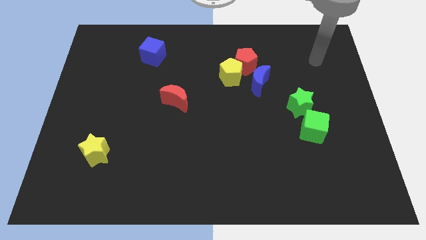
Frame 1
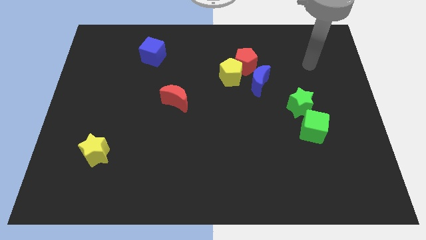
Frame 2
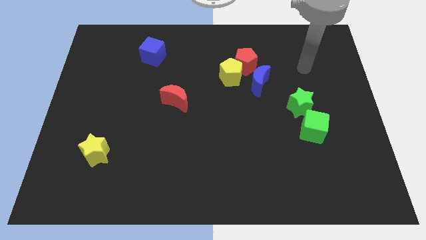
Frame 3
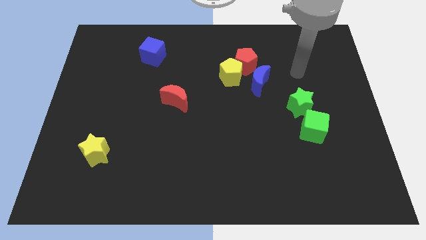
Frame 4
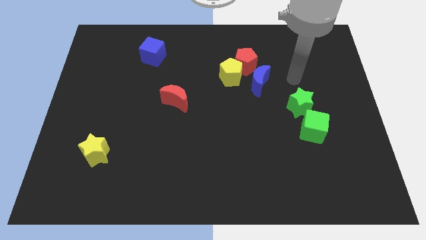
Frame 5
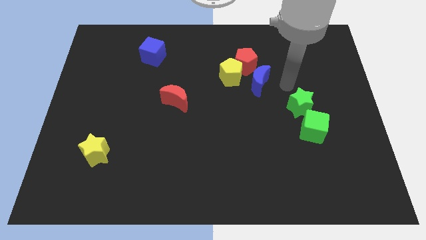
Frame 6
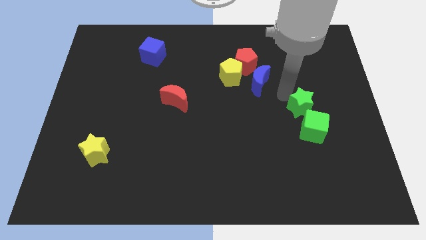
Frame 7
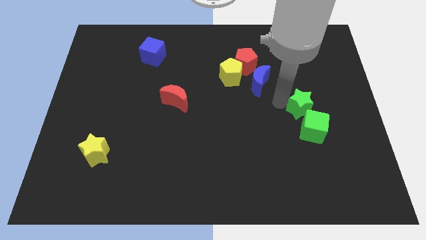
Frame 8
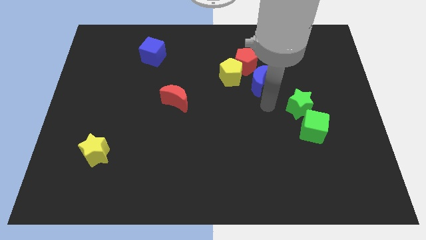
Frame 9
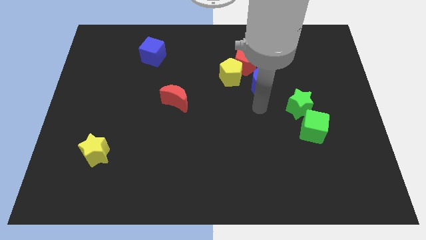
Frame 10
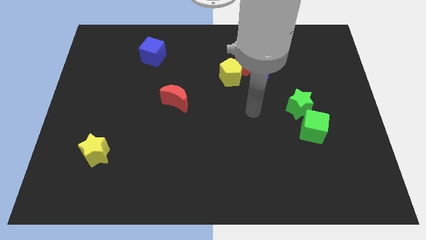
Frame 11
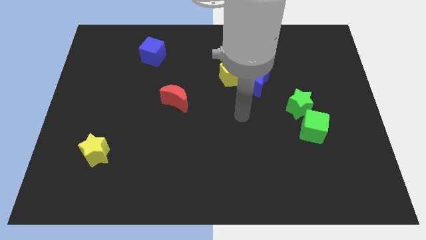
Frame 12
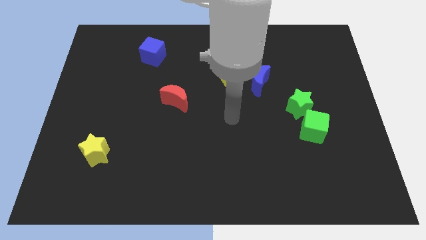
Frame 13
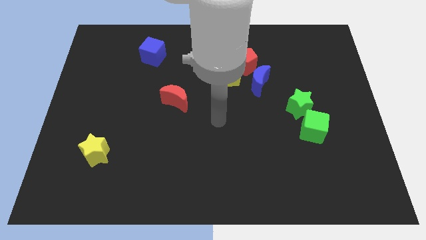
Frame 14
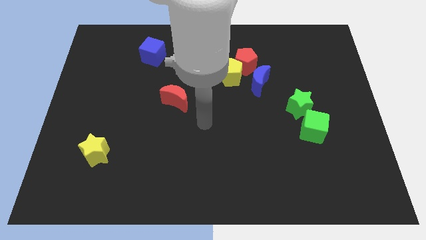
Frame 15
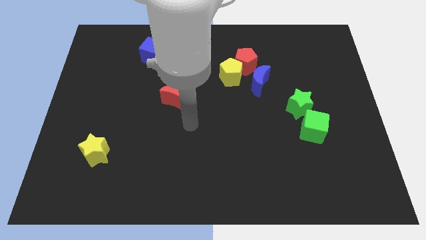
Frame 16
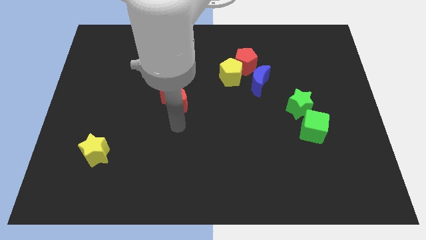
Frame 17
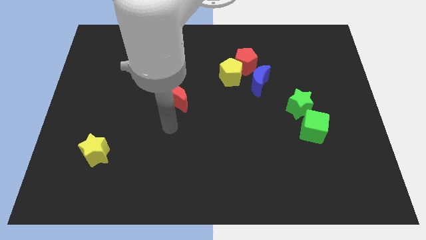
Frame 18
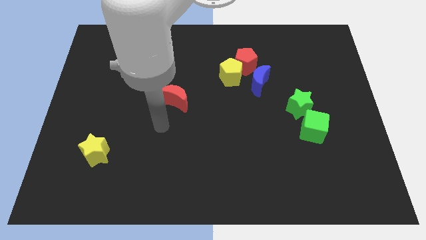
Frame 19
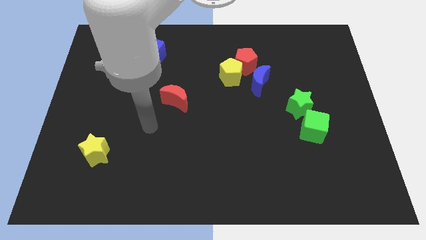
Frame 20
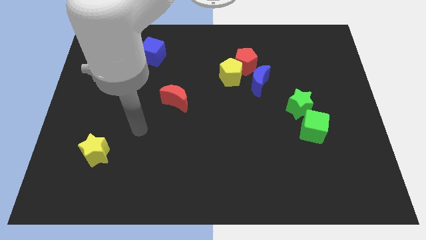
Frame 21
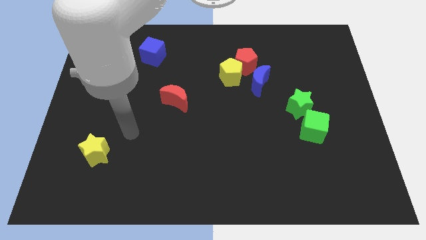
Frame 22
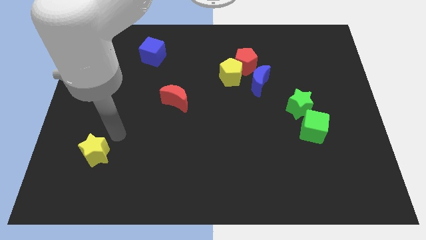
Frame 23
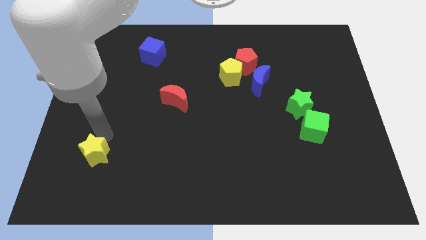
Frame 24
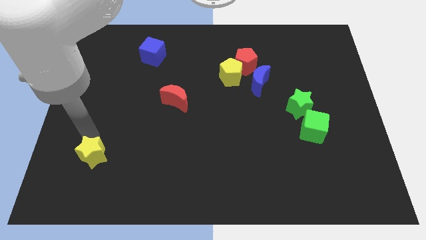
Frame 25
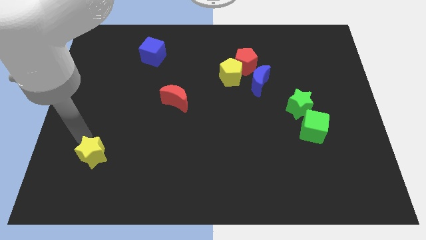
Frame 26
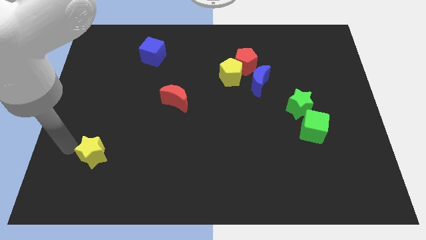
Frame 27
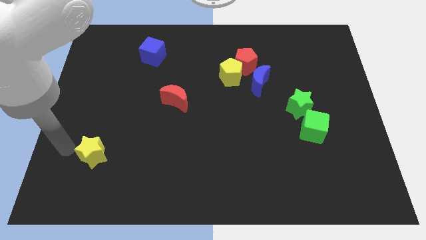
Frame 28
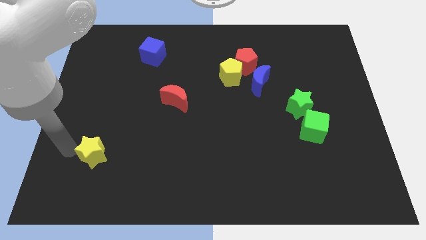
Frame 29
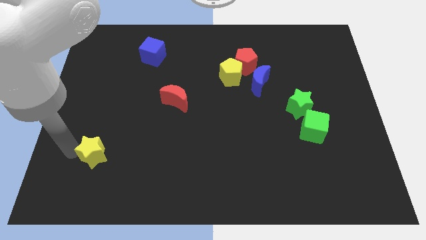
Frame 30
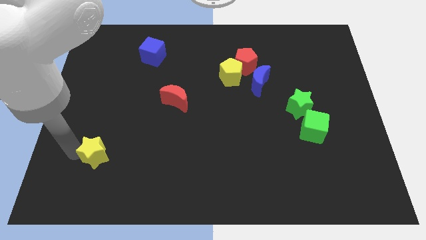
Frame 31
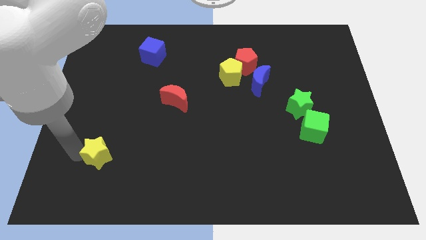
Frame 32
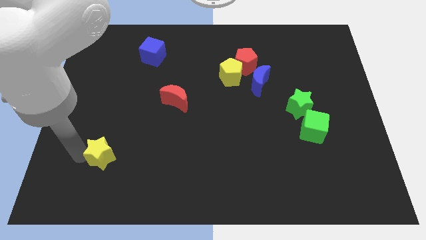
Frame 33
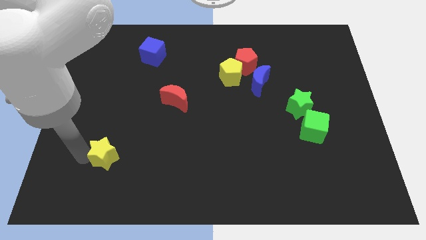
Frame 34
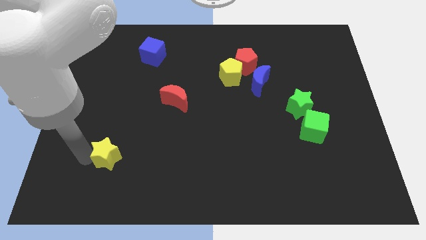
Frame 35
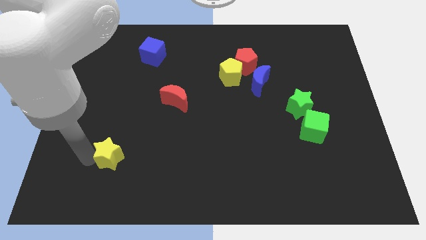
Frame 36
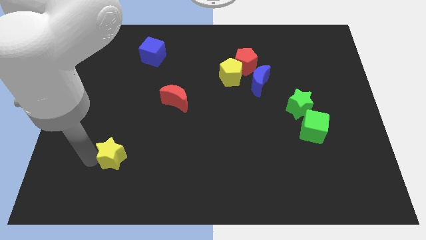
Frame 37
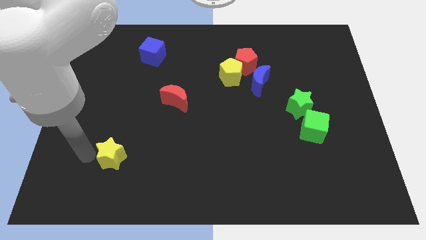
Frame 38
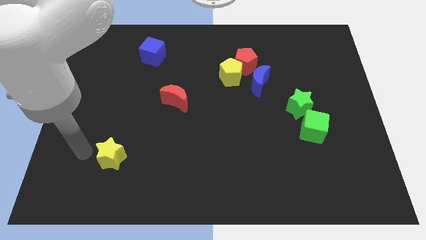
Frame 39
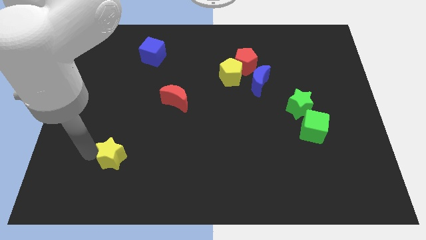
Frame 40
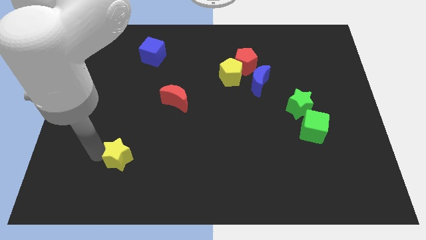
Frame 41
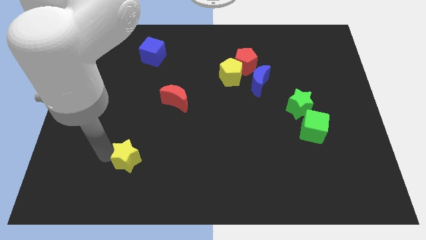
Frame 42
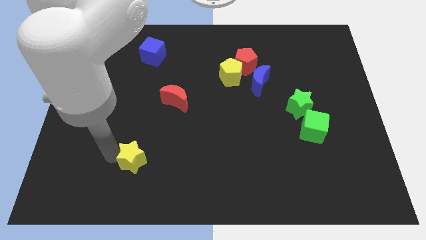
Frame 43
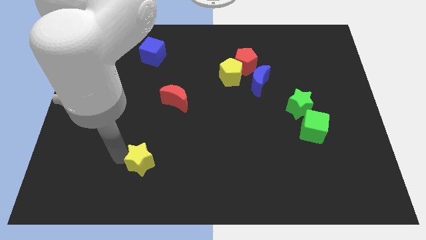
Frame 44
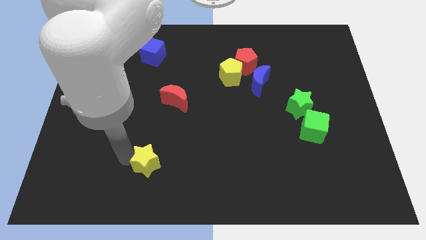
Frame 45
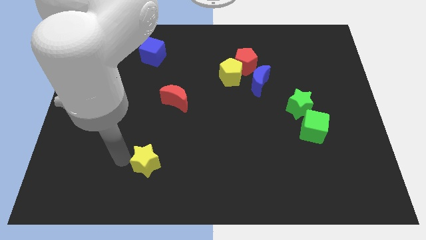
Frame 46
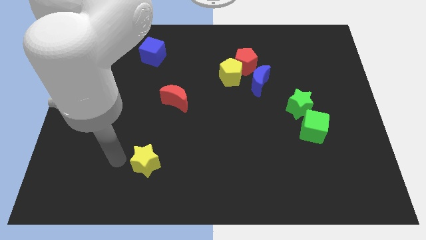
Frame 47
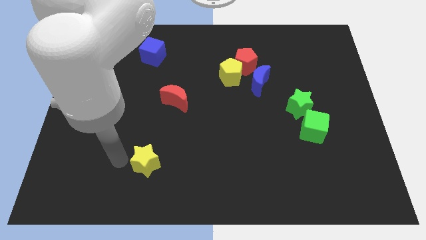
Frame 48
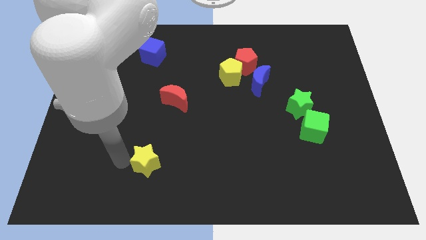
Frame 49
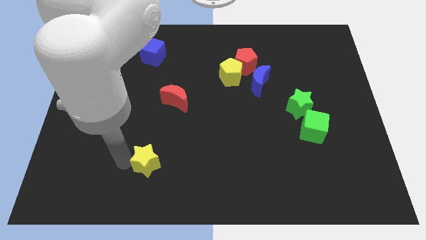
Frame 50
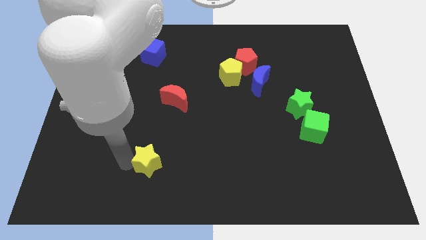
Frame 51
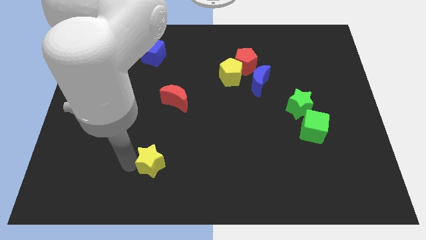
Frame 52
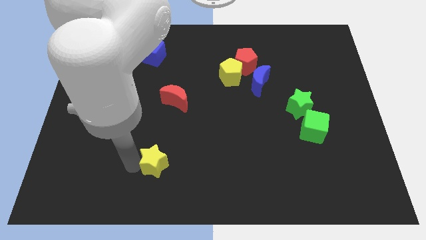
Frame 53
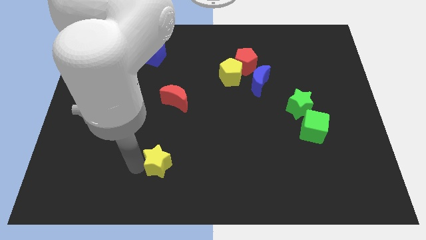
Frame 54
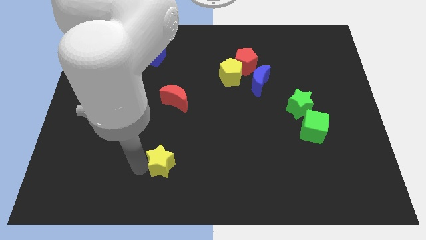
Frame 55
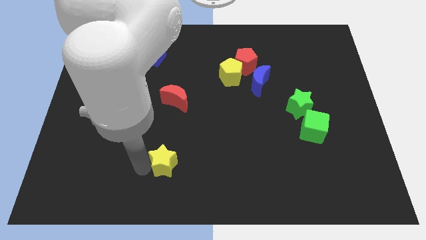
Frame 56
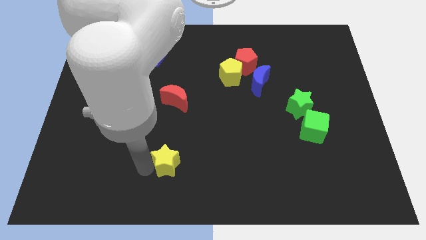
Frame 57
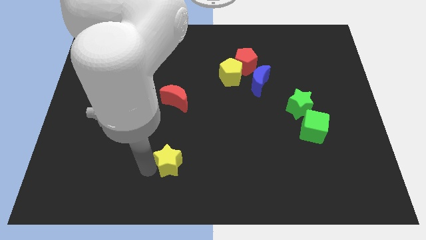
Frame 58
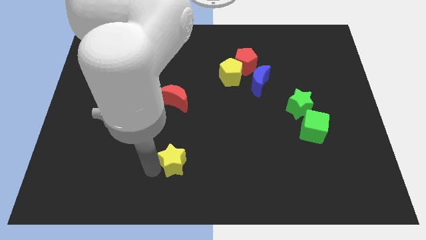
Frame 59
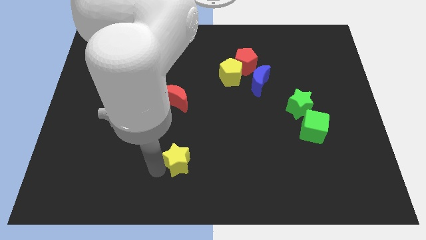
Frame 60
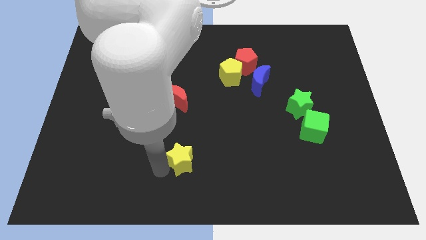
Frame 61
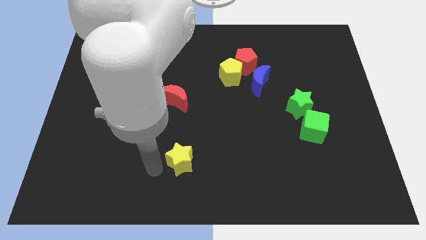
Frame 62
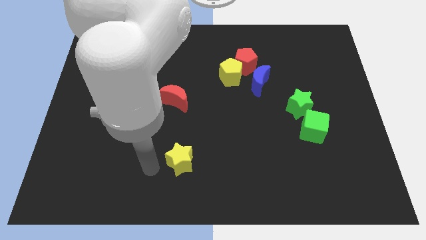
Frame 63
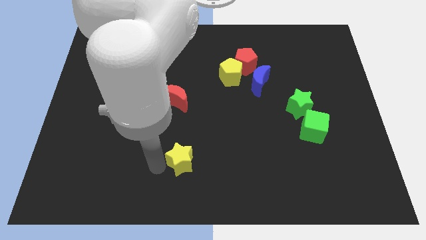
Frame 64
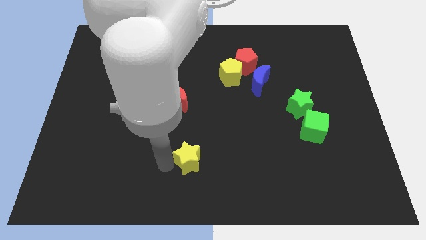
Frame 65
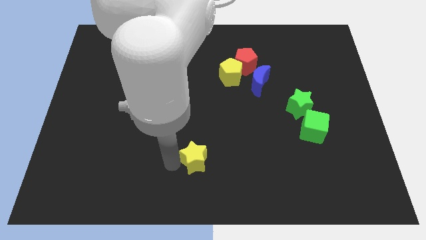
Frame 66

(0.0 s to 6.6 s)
move the yellow star right

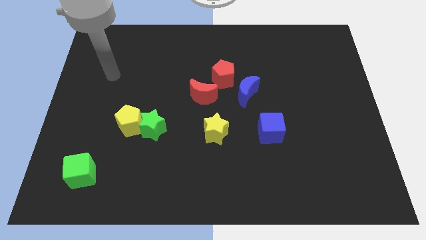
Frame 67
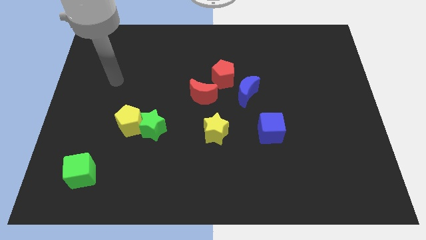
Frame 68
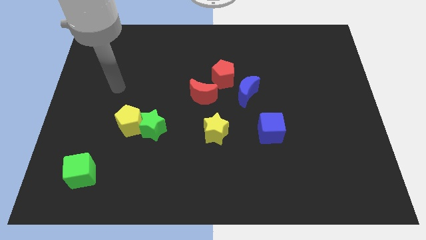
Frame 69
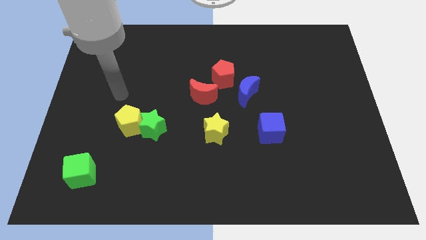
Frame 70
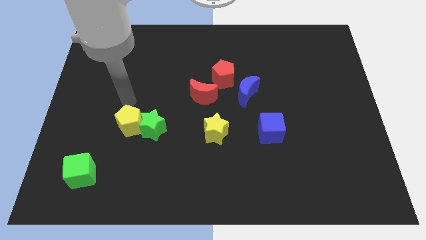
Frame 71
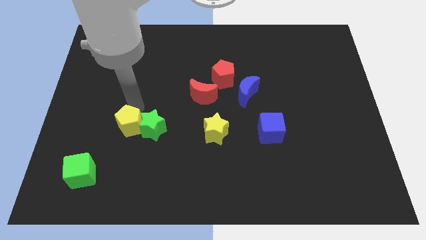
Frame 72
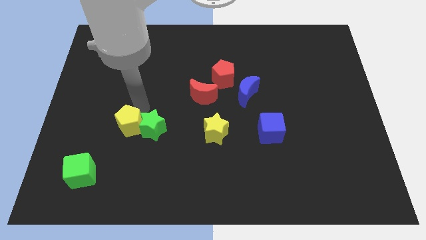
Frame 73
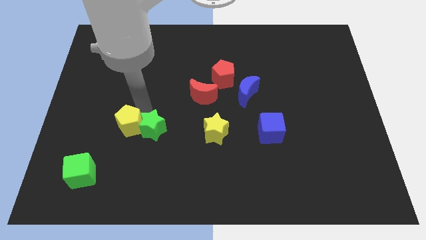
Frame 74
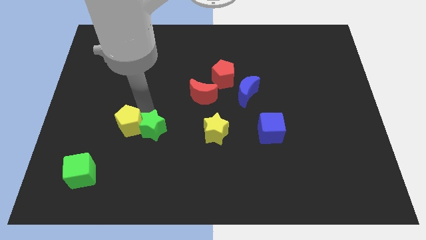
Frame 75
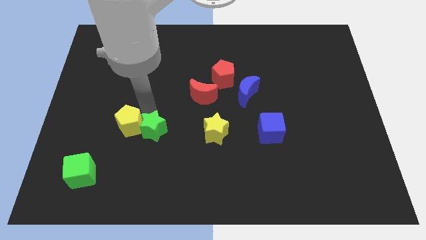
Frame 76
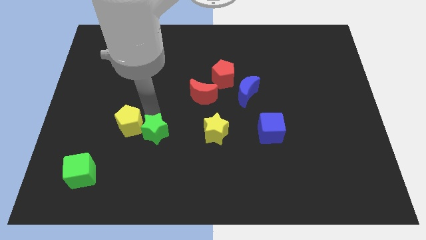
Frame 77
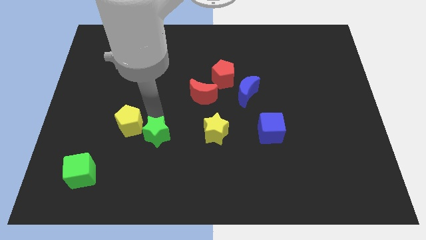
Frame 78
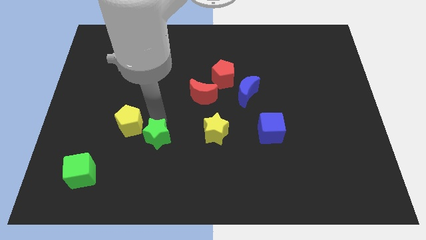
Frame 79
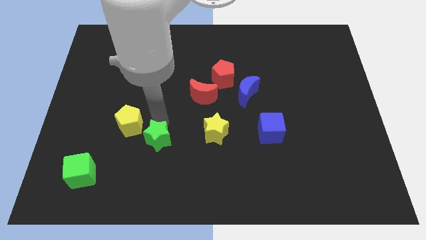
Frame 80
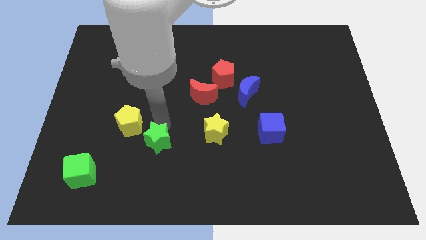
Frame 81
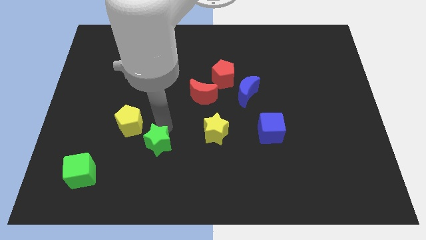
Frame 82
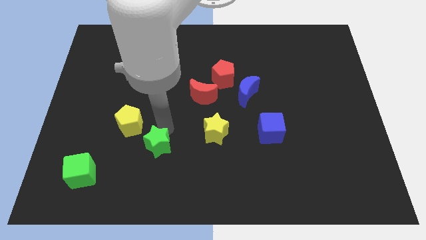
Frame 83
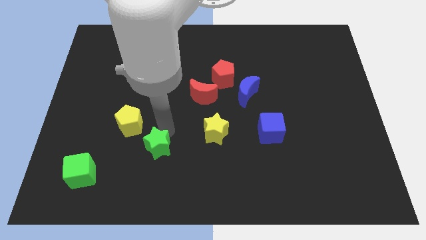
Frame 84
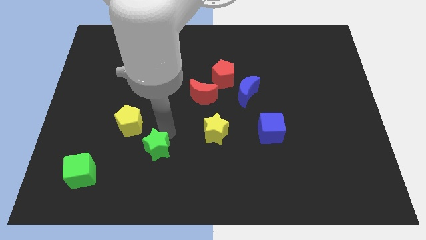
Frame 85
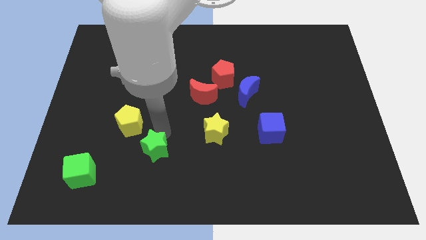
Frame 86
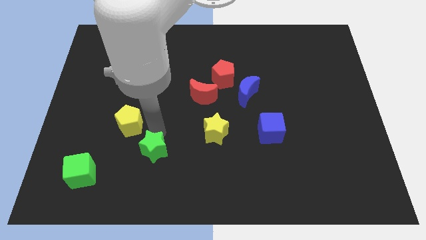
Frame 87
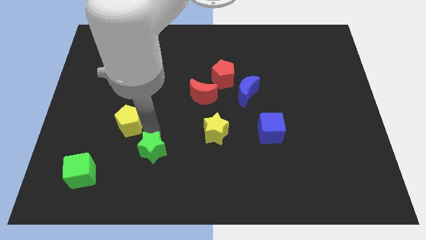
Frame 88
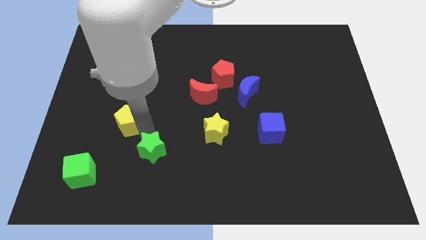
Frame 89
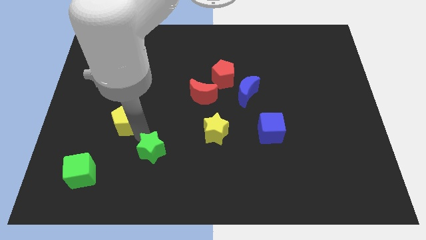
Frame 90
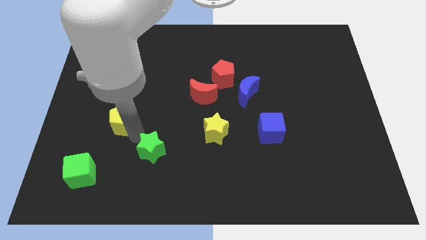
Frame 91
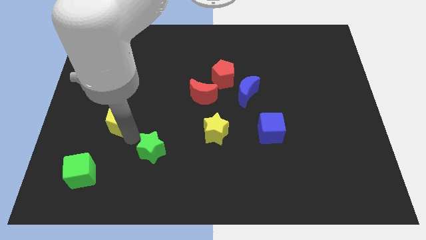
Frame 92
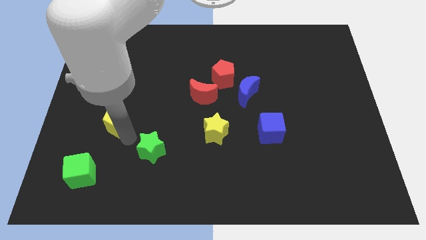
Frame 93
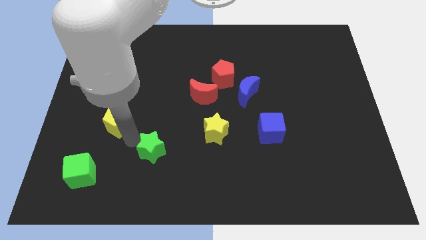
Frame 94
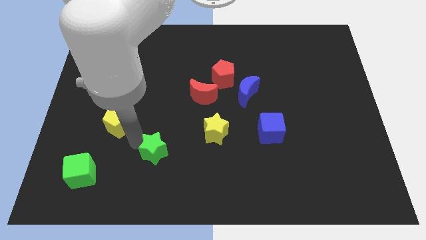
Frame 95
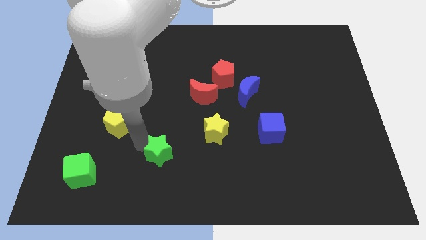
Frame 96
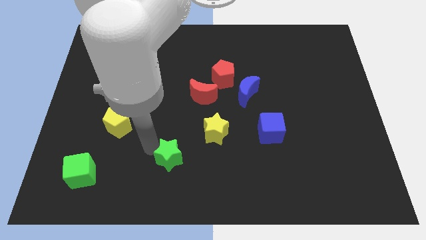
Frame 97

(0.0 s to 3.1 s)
move the green star diagonally down and right a little
